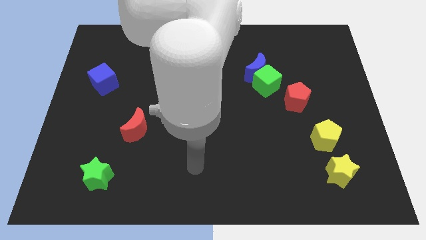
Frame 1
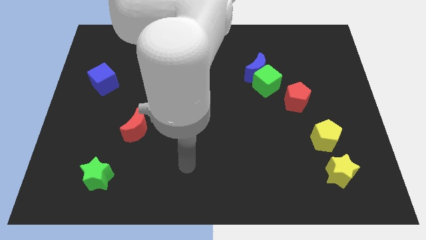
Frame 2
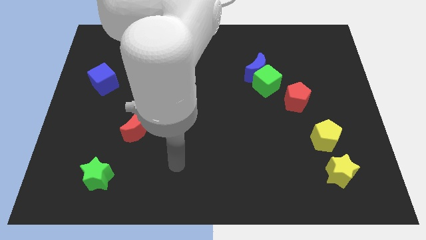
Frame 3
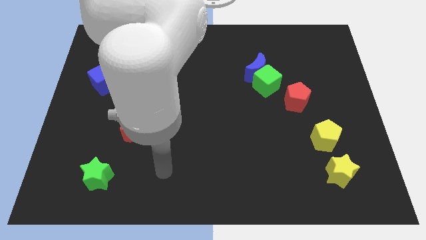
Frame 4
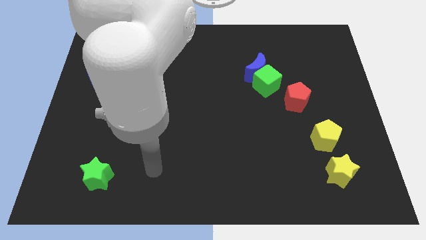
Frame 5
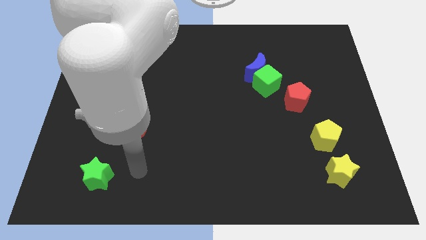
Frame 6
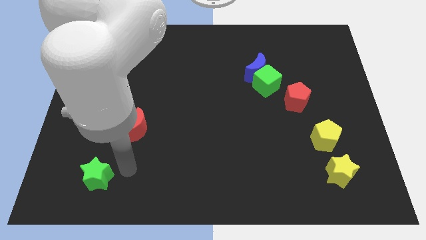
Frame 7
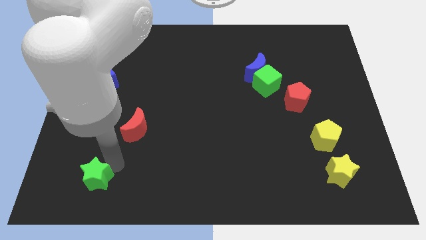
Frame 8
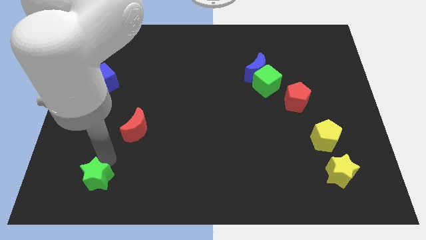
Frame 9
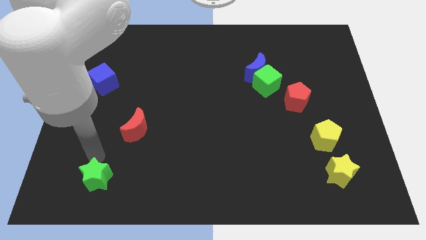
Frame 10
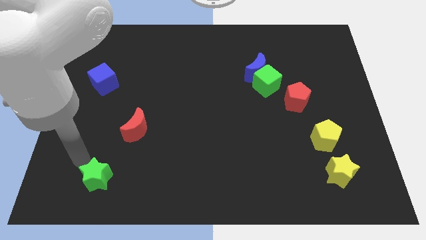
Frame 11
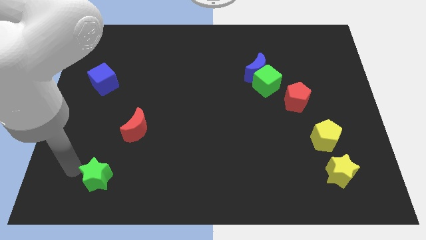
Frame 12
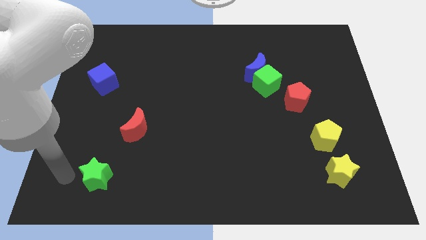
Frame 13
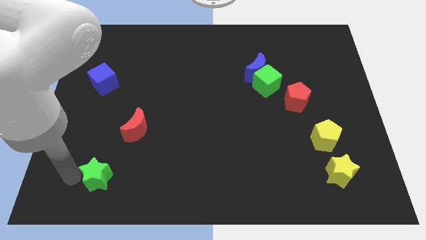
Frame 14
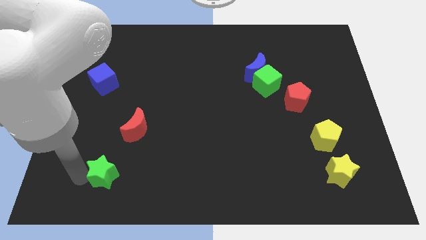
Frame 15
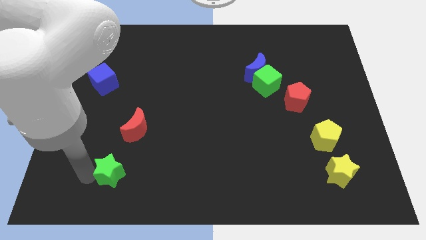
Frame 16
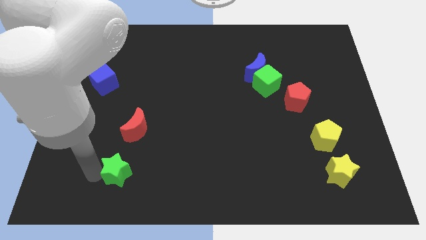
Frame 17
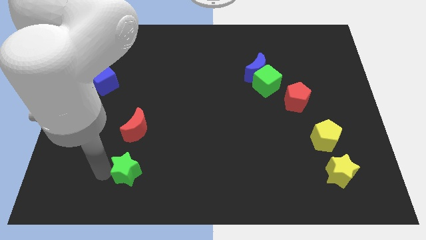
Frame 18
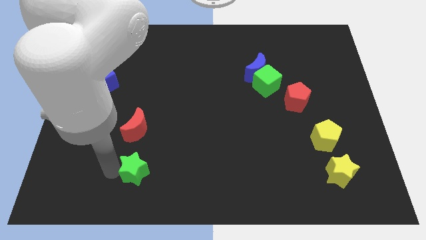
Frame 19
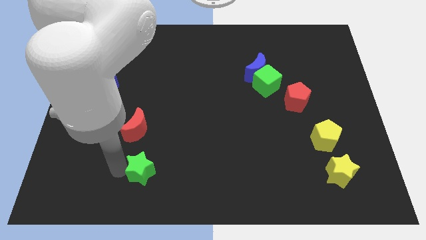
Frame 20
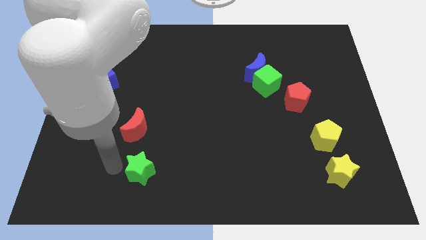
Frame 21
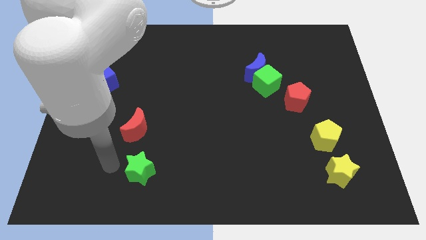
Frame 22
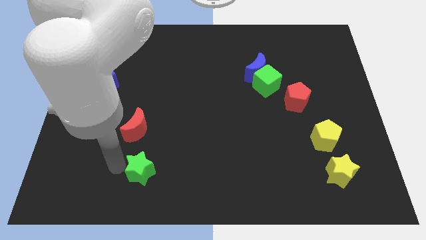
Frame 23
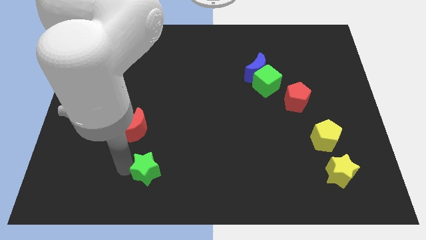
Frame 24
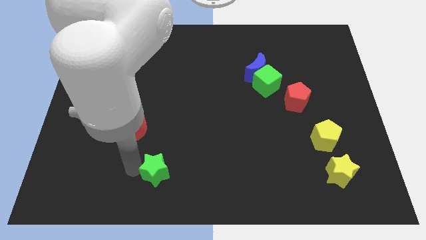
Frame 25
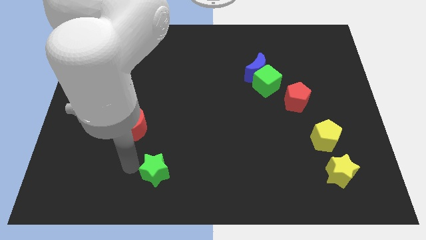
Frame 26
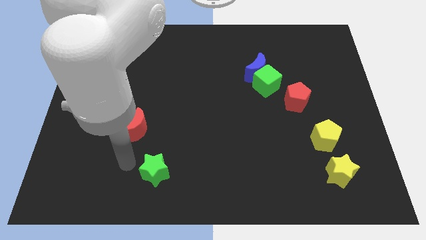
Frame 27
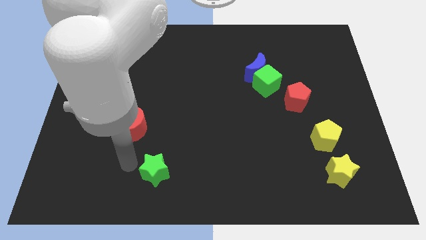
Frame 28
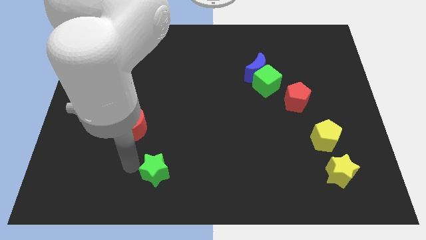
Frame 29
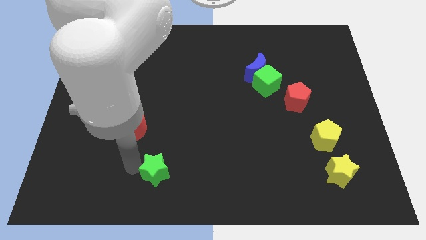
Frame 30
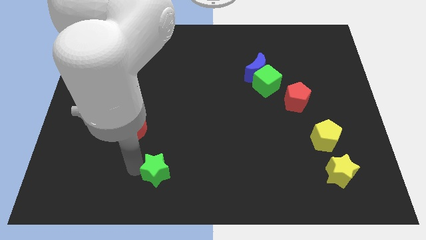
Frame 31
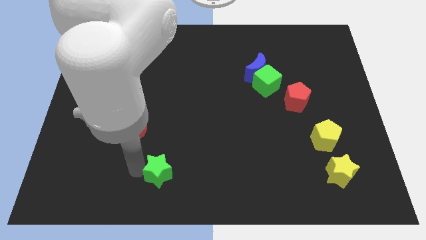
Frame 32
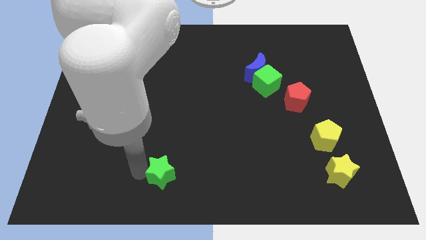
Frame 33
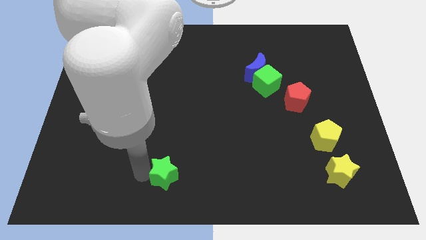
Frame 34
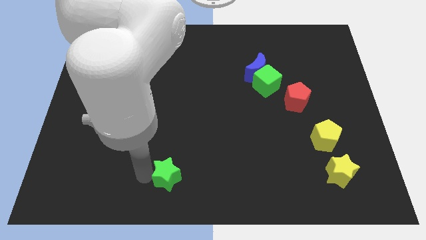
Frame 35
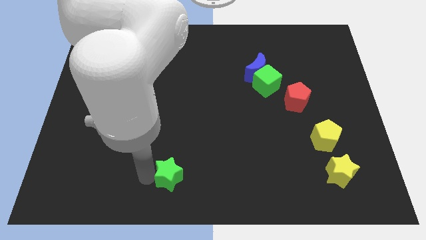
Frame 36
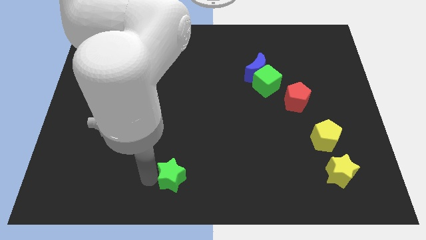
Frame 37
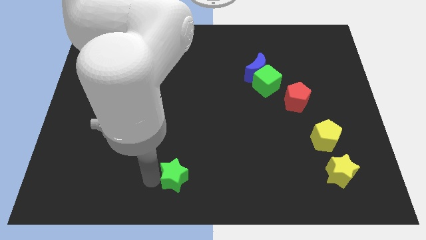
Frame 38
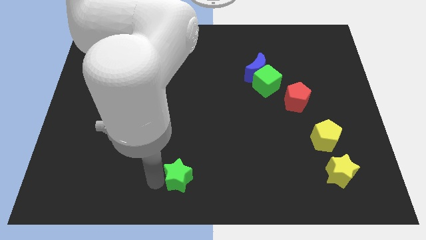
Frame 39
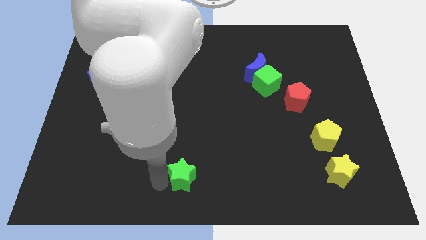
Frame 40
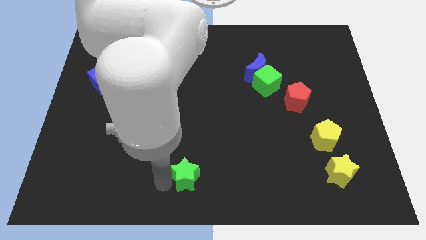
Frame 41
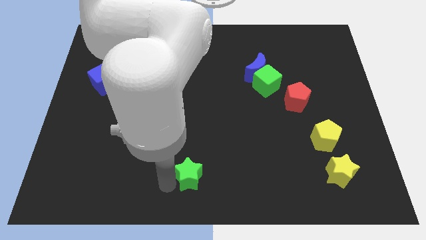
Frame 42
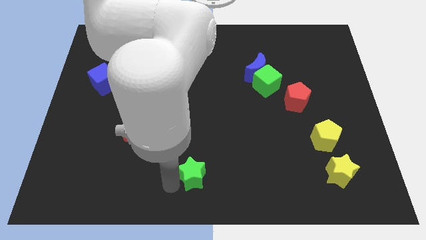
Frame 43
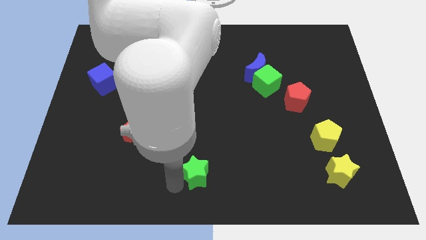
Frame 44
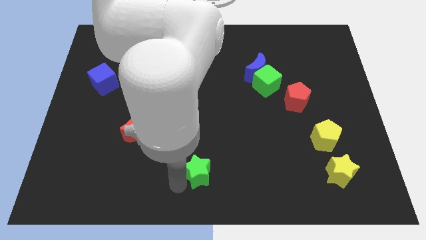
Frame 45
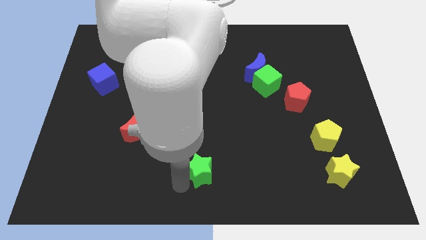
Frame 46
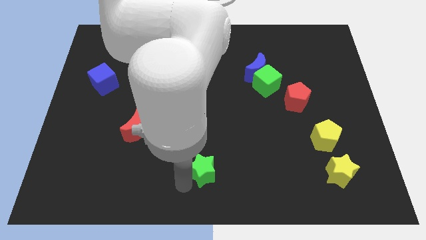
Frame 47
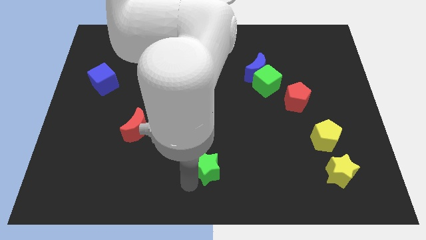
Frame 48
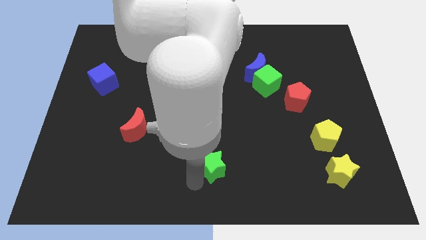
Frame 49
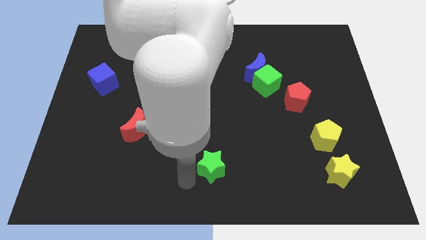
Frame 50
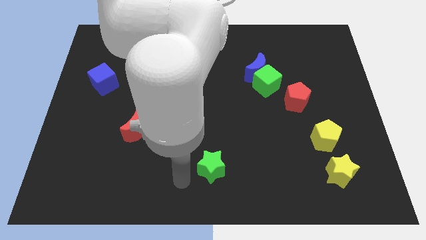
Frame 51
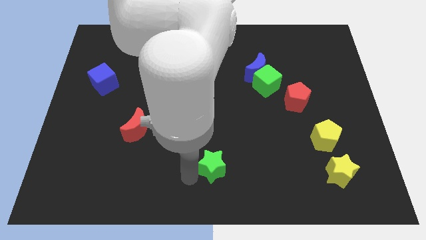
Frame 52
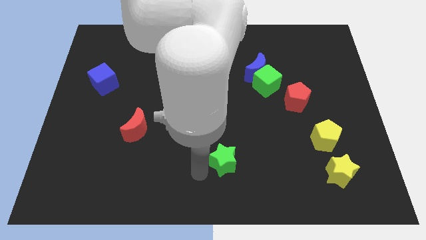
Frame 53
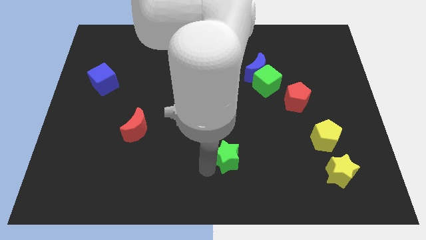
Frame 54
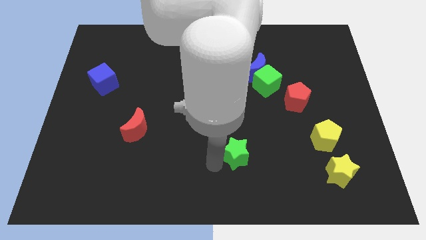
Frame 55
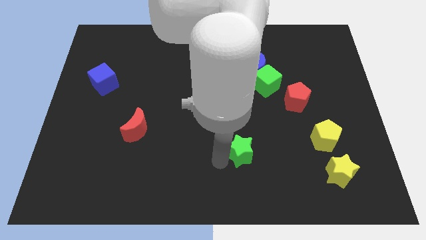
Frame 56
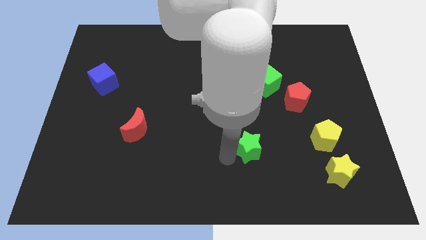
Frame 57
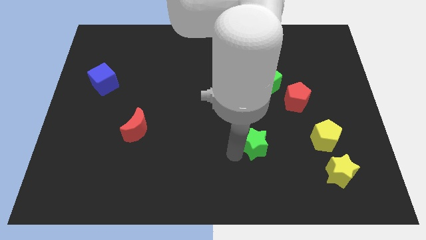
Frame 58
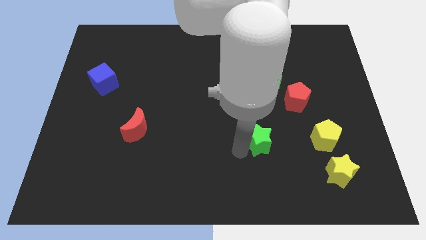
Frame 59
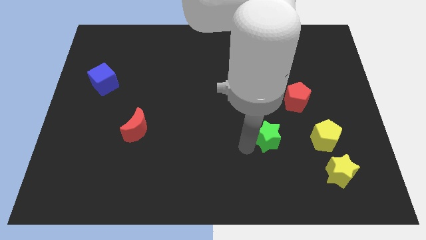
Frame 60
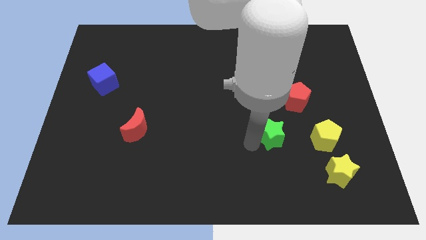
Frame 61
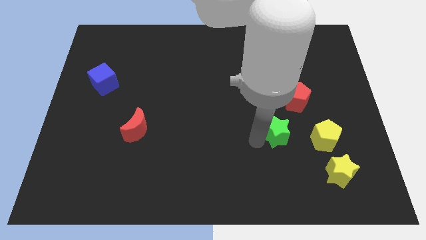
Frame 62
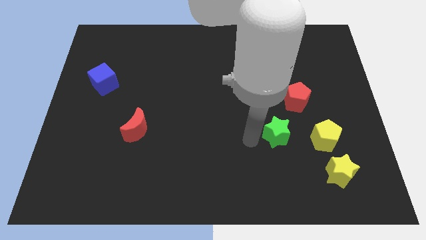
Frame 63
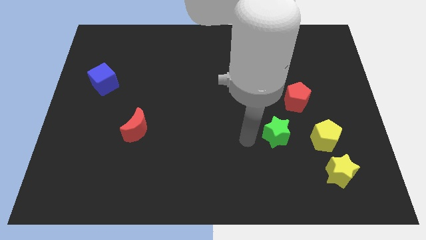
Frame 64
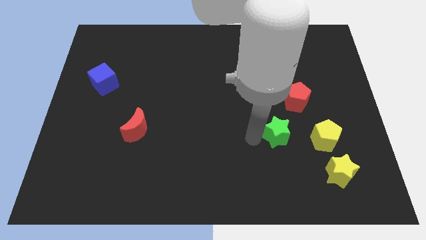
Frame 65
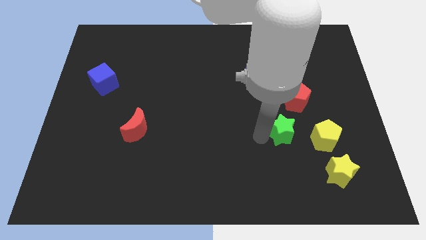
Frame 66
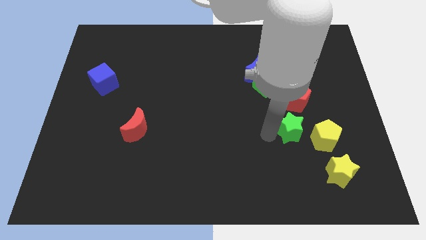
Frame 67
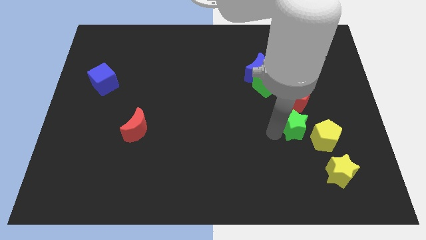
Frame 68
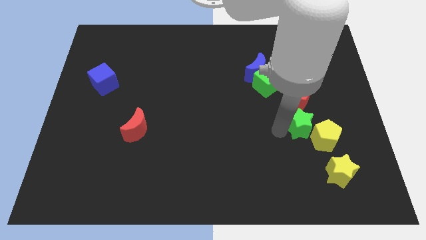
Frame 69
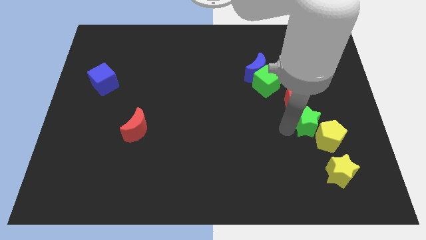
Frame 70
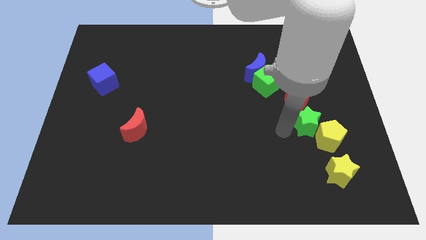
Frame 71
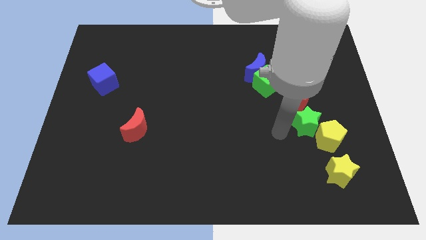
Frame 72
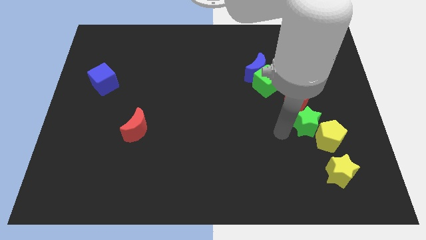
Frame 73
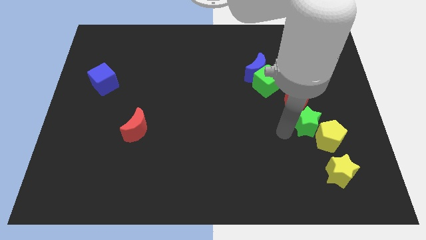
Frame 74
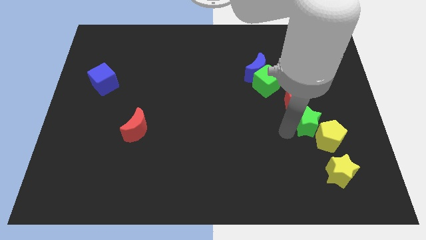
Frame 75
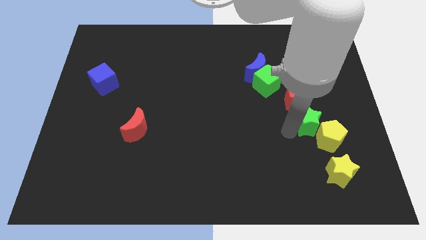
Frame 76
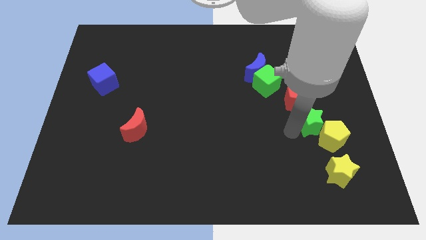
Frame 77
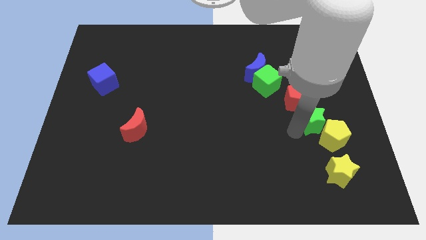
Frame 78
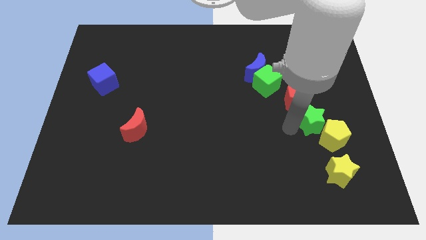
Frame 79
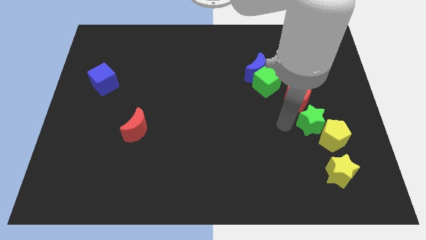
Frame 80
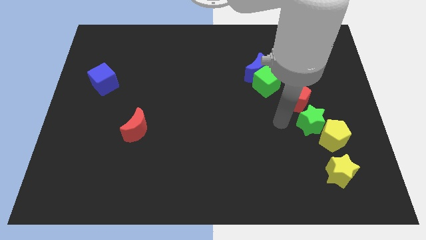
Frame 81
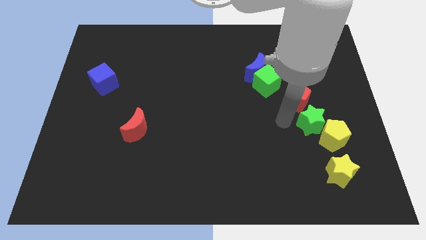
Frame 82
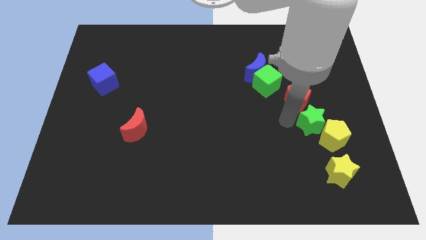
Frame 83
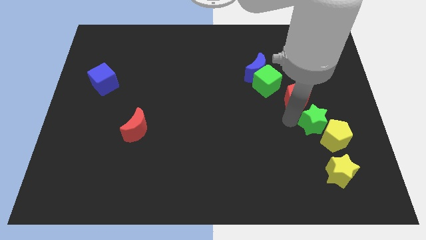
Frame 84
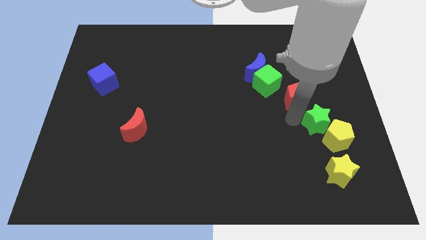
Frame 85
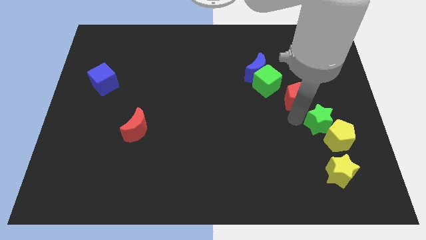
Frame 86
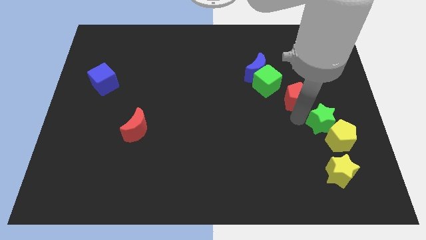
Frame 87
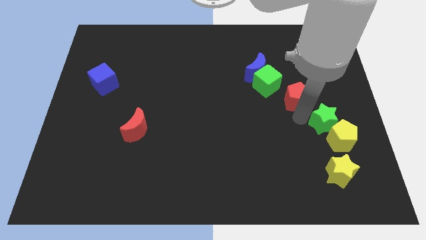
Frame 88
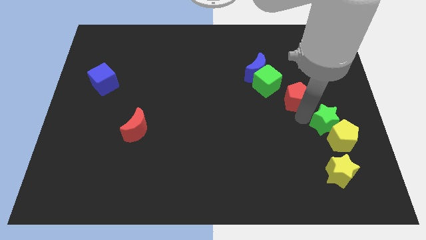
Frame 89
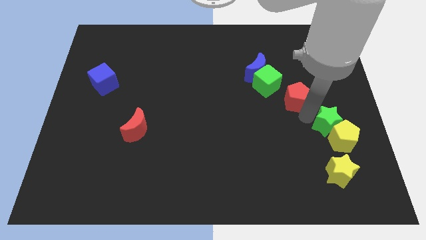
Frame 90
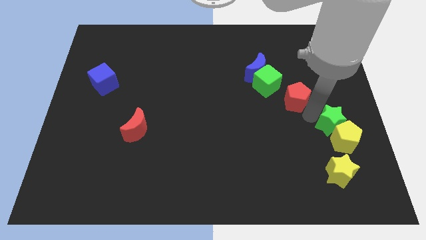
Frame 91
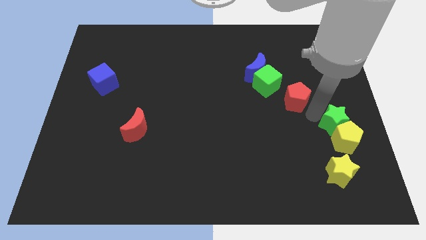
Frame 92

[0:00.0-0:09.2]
push the green star to the right side of the board
